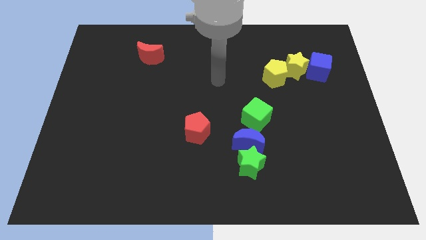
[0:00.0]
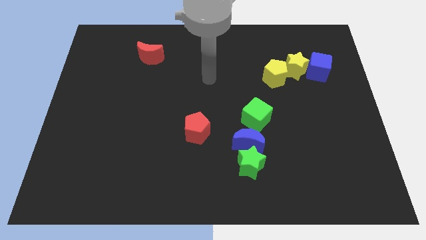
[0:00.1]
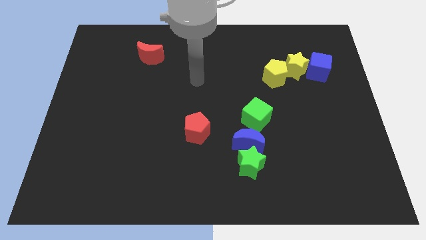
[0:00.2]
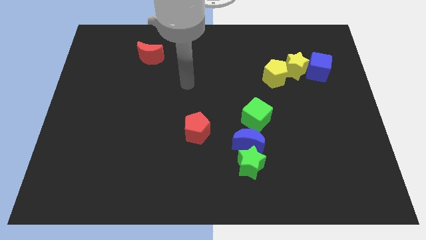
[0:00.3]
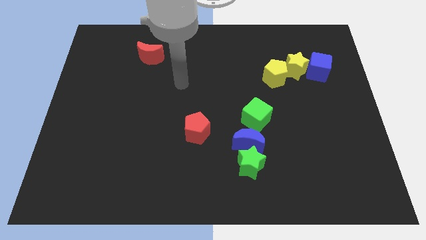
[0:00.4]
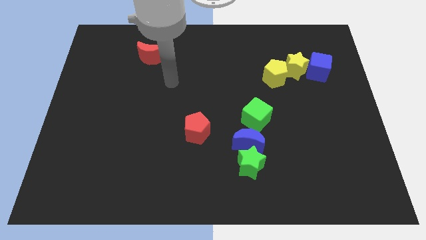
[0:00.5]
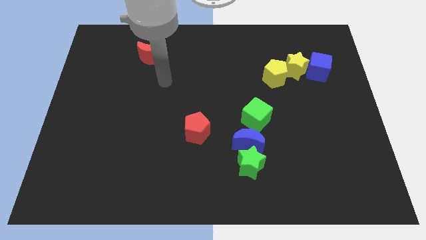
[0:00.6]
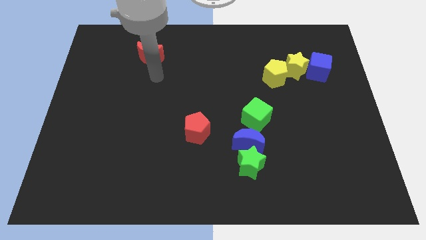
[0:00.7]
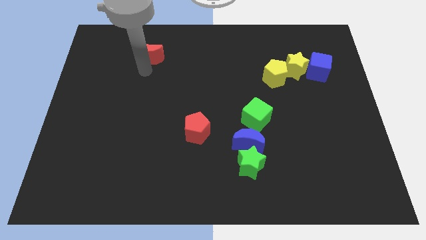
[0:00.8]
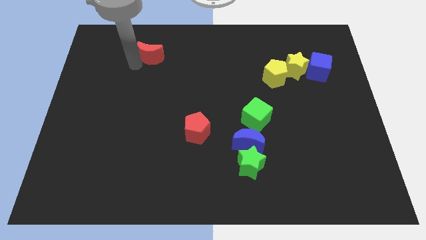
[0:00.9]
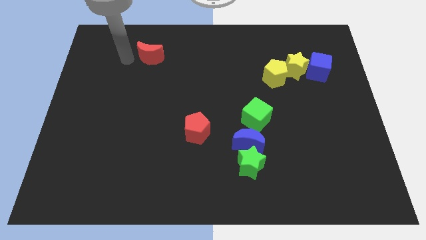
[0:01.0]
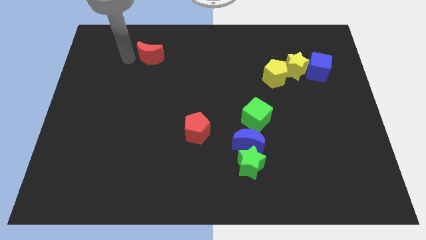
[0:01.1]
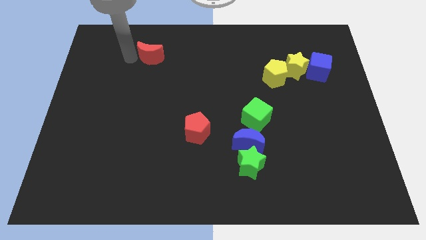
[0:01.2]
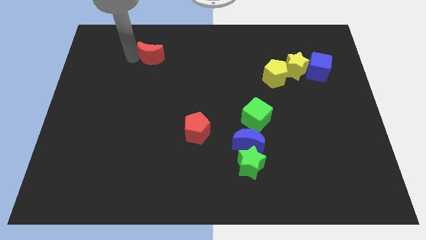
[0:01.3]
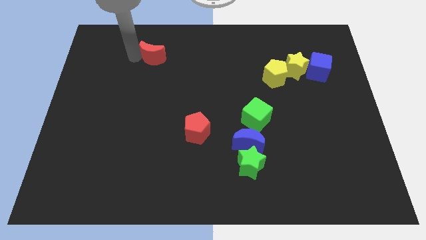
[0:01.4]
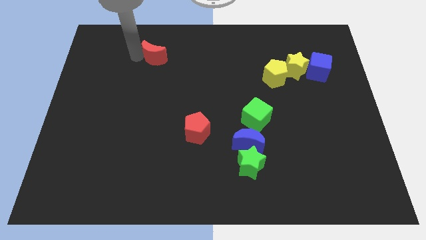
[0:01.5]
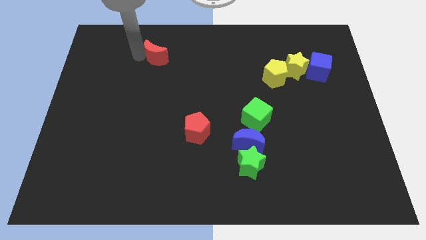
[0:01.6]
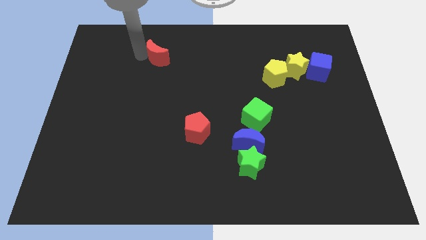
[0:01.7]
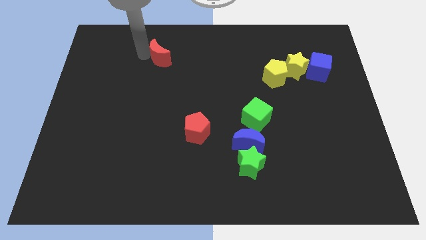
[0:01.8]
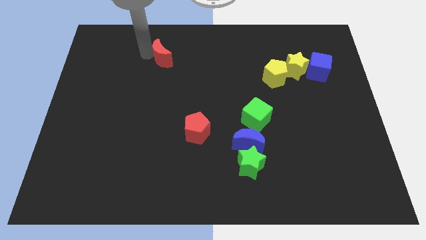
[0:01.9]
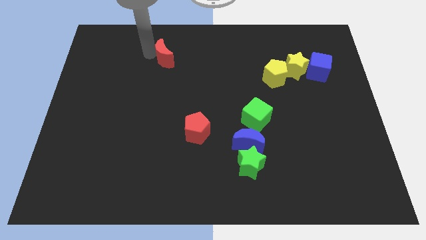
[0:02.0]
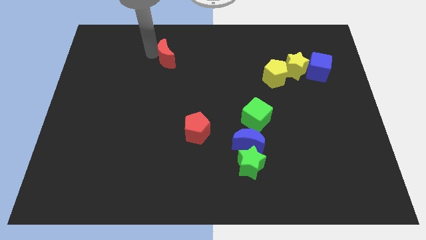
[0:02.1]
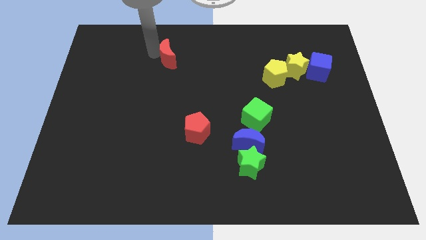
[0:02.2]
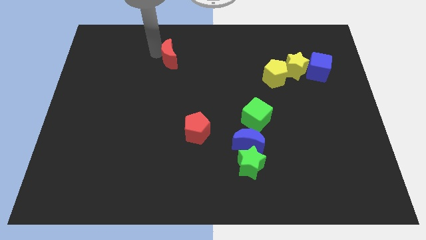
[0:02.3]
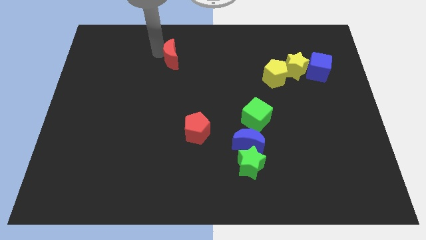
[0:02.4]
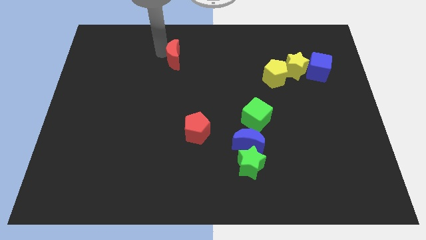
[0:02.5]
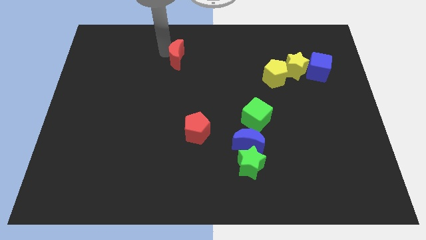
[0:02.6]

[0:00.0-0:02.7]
slide the red moon right a bit

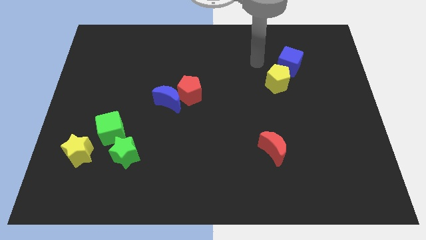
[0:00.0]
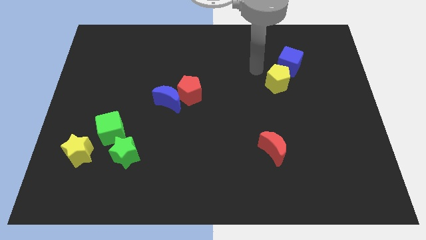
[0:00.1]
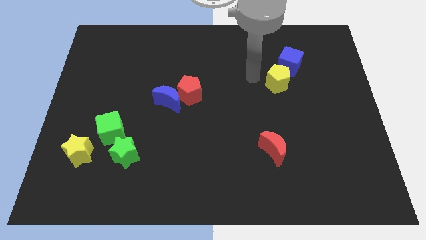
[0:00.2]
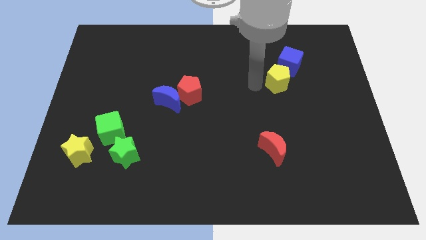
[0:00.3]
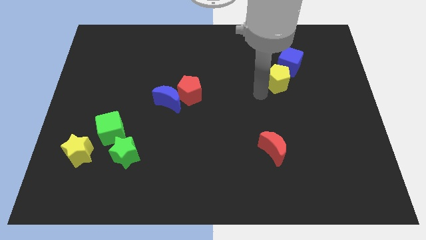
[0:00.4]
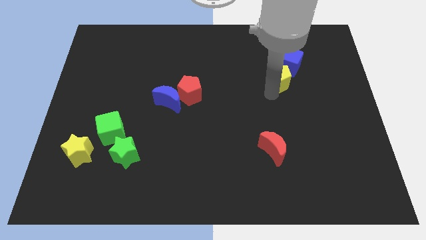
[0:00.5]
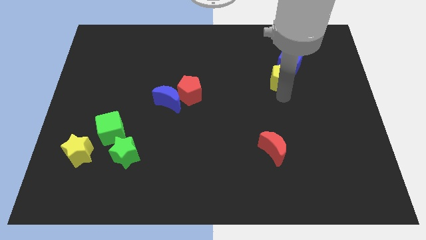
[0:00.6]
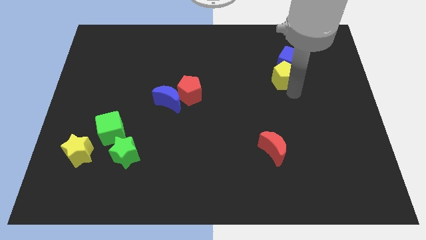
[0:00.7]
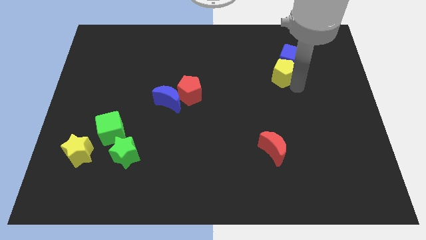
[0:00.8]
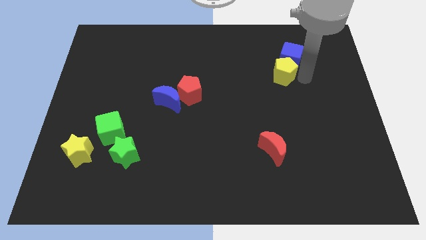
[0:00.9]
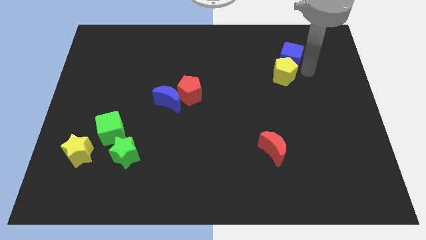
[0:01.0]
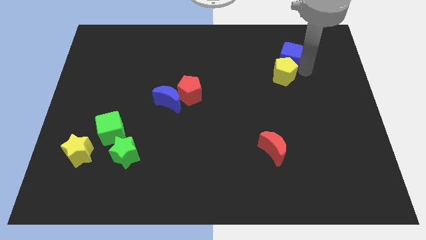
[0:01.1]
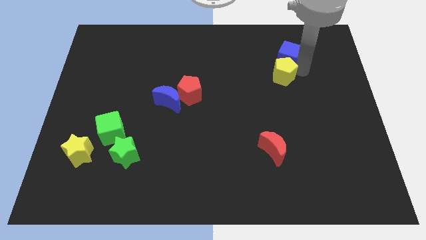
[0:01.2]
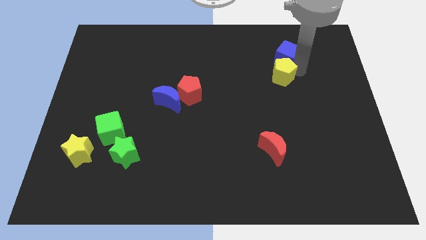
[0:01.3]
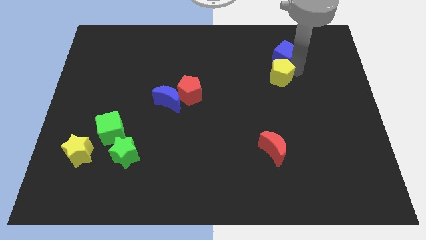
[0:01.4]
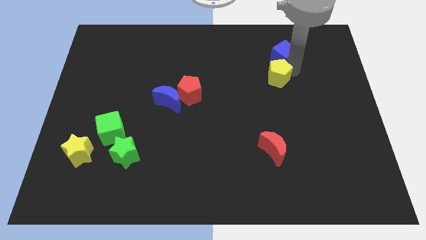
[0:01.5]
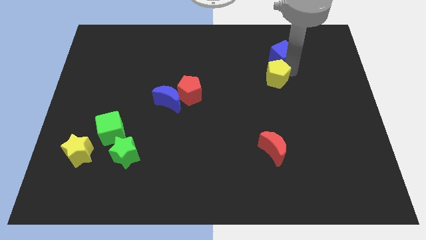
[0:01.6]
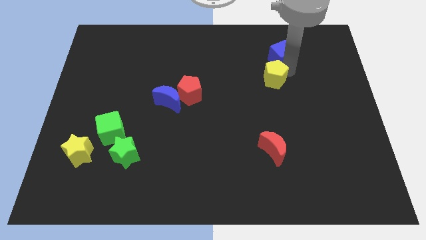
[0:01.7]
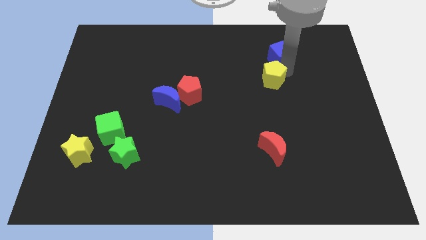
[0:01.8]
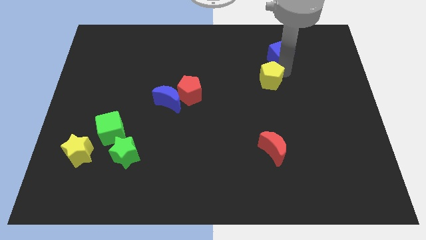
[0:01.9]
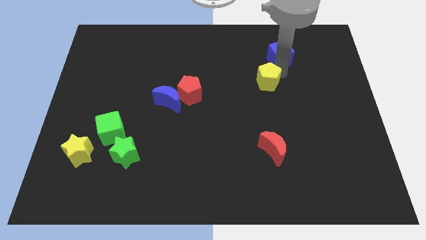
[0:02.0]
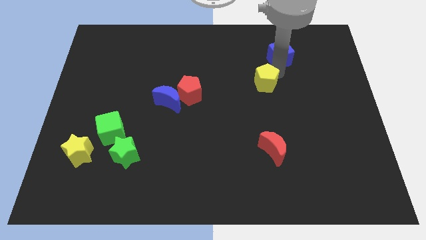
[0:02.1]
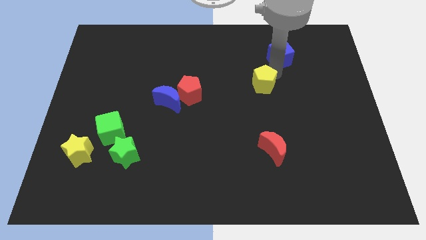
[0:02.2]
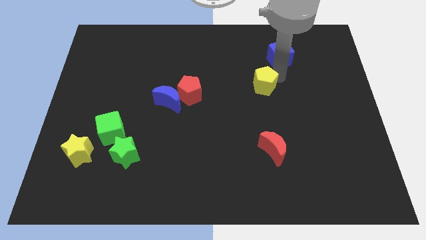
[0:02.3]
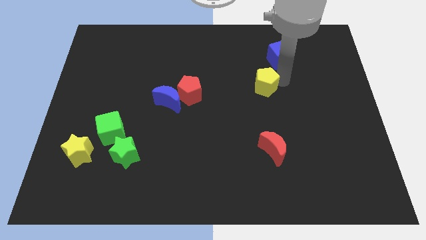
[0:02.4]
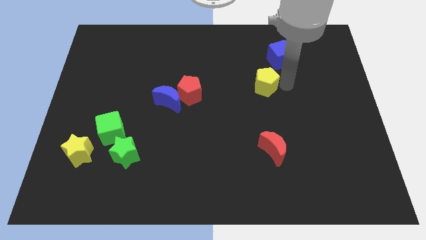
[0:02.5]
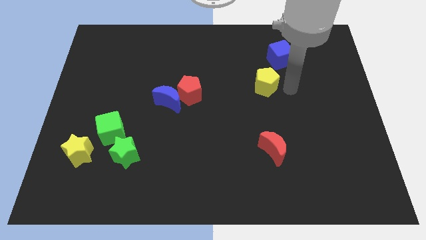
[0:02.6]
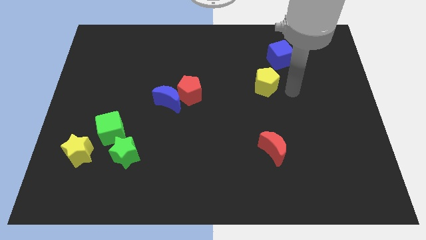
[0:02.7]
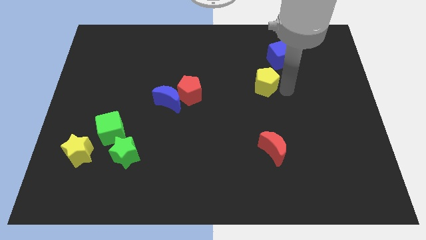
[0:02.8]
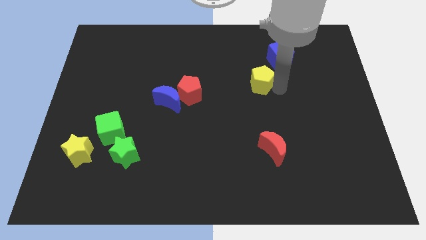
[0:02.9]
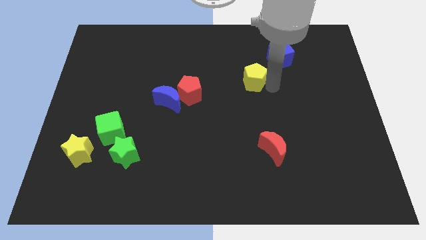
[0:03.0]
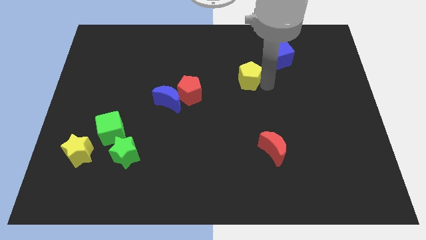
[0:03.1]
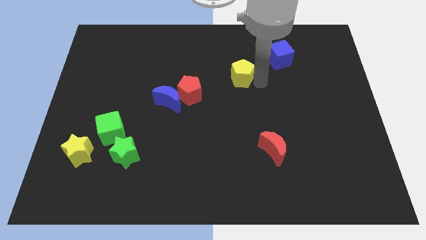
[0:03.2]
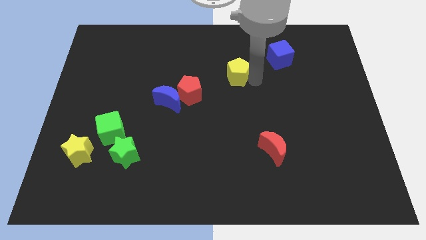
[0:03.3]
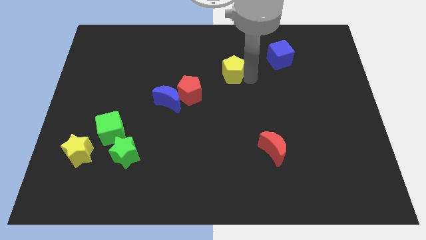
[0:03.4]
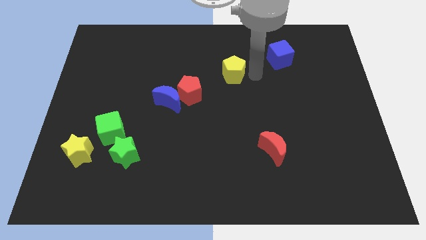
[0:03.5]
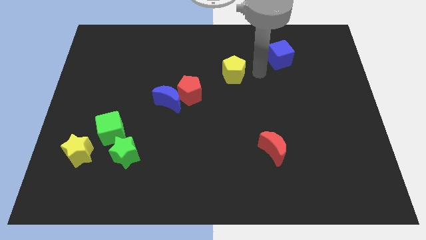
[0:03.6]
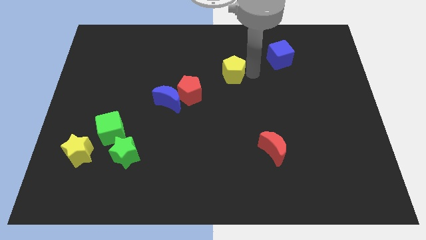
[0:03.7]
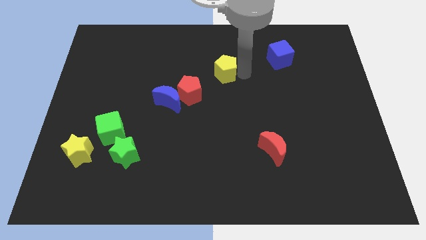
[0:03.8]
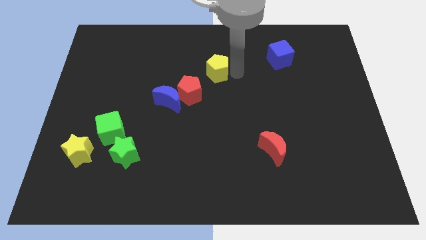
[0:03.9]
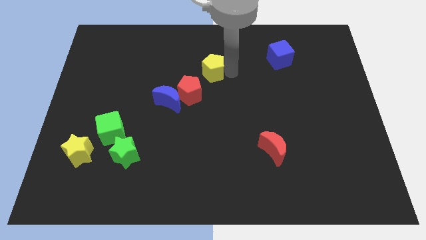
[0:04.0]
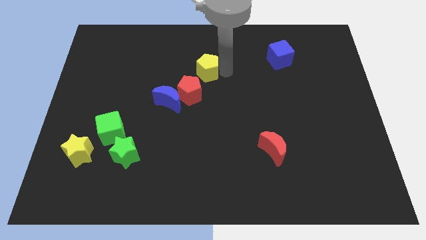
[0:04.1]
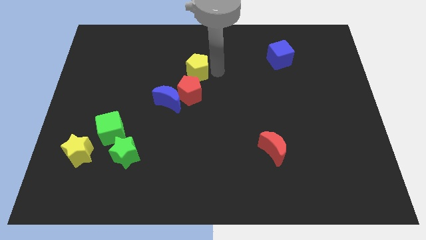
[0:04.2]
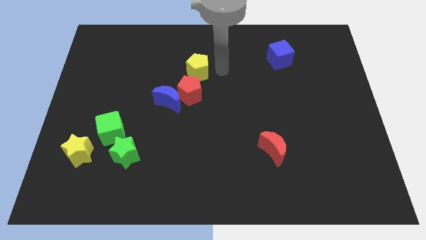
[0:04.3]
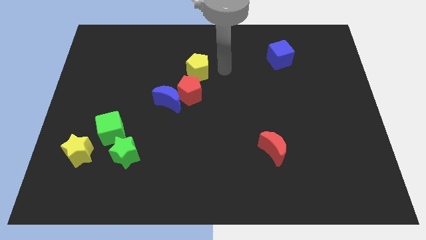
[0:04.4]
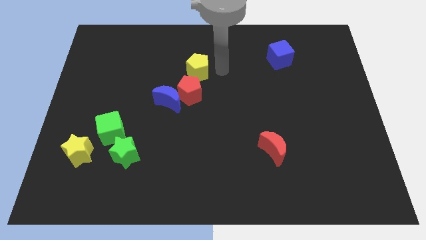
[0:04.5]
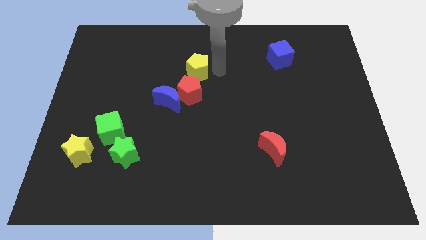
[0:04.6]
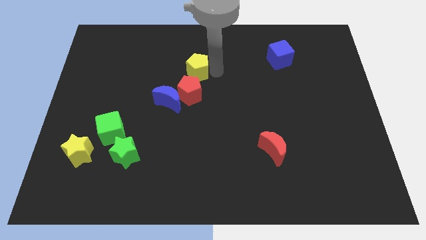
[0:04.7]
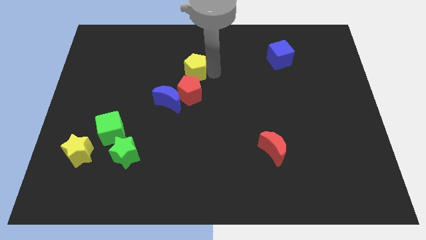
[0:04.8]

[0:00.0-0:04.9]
push the yellow pentagon left

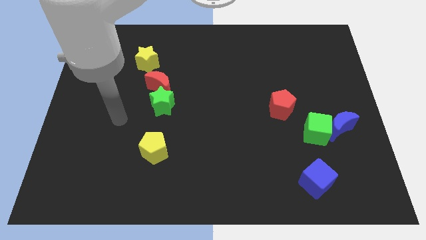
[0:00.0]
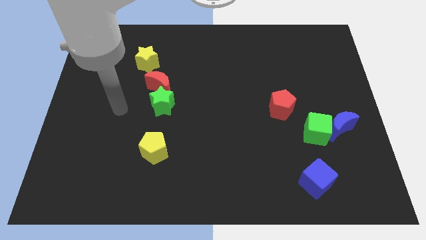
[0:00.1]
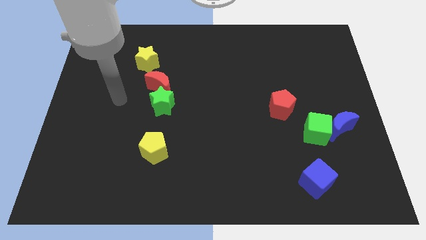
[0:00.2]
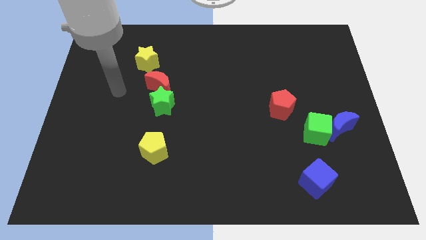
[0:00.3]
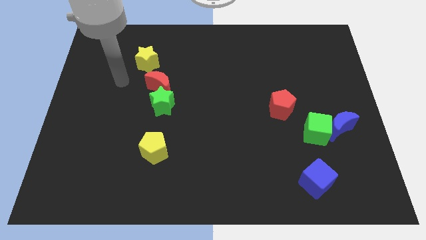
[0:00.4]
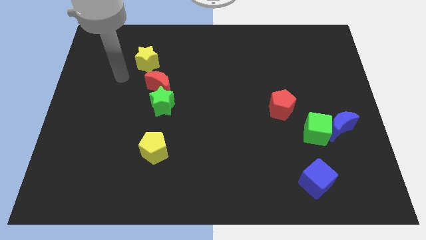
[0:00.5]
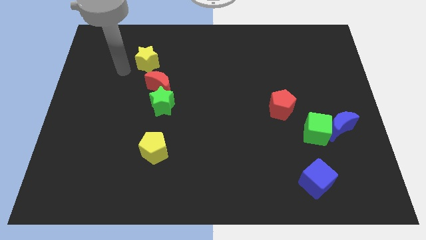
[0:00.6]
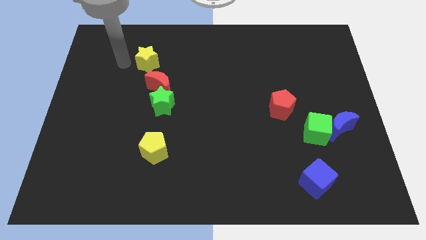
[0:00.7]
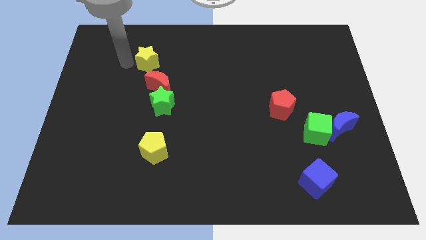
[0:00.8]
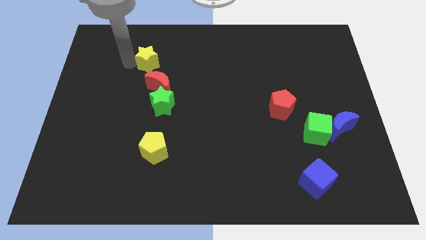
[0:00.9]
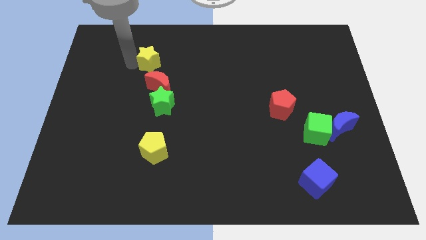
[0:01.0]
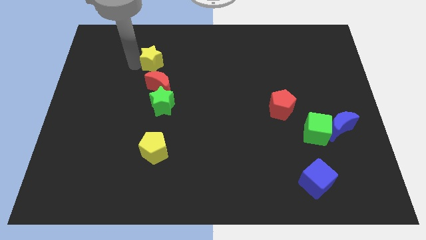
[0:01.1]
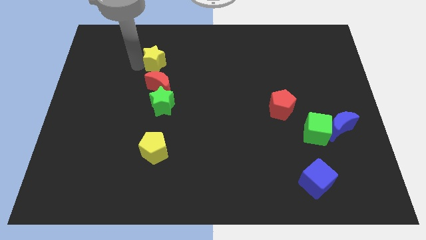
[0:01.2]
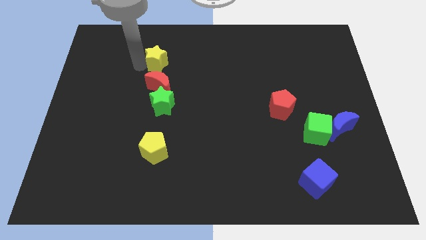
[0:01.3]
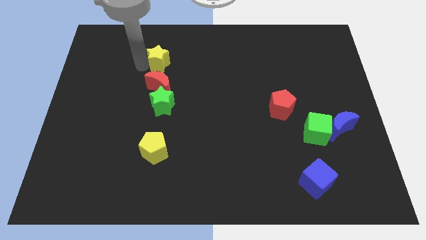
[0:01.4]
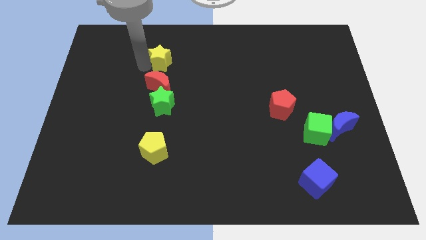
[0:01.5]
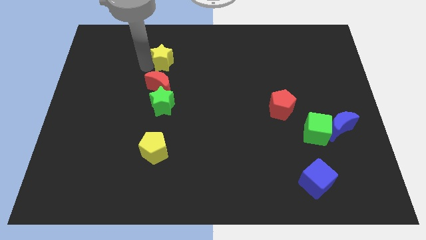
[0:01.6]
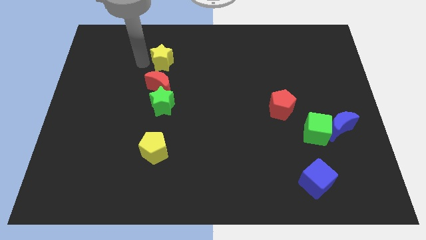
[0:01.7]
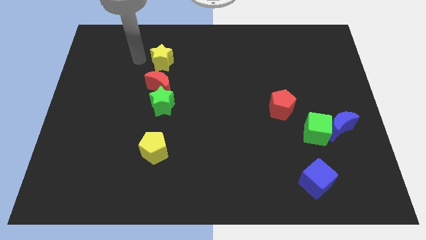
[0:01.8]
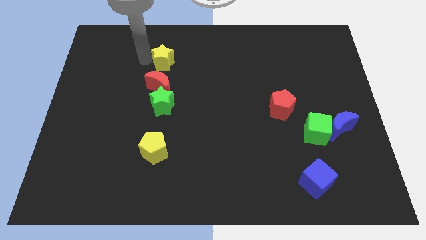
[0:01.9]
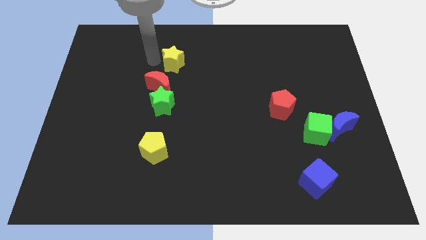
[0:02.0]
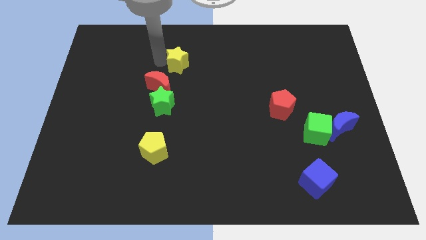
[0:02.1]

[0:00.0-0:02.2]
slide the yellow star right somewhat
